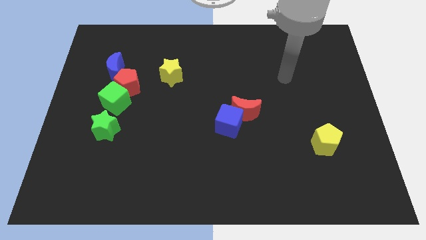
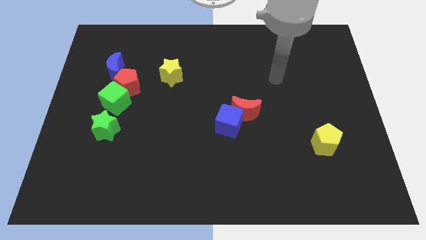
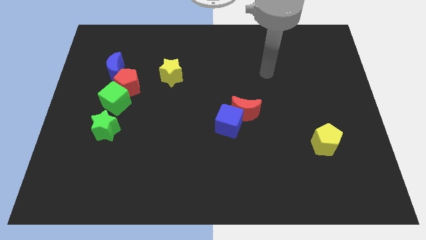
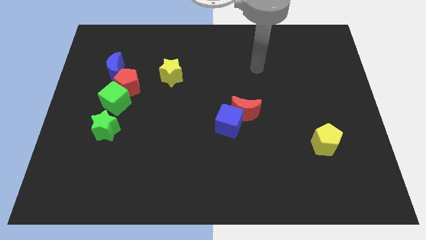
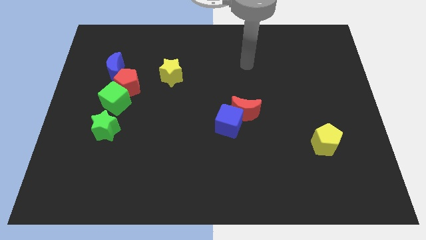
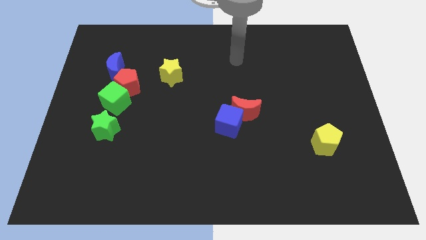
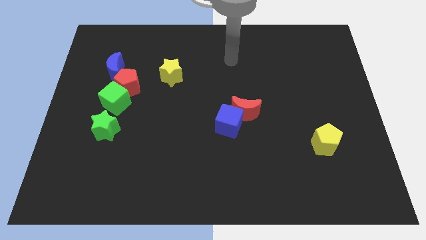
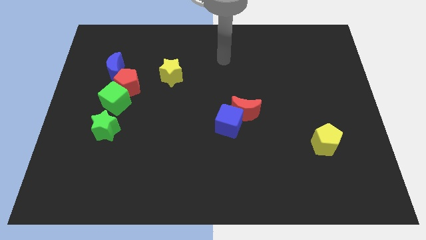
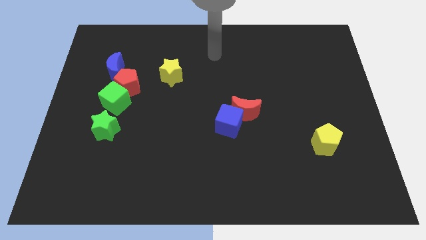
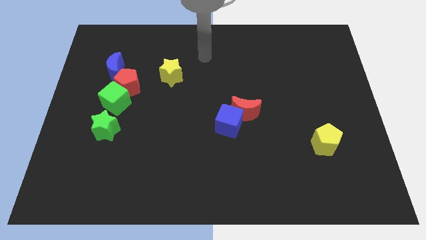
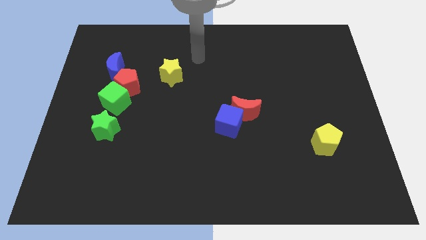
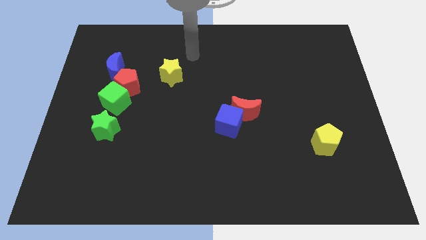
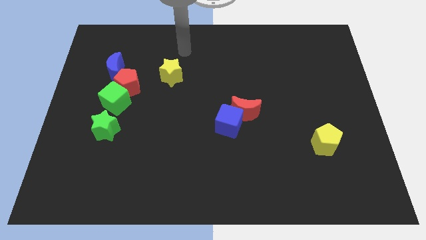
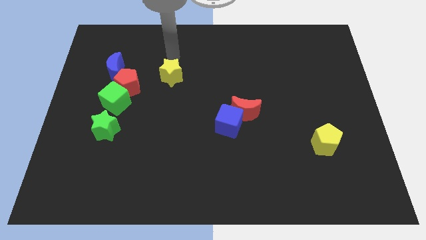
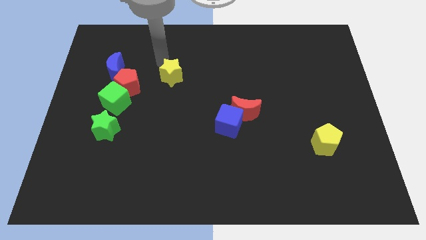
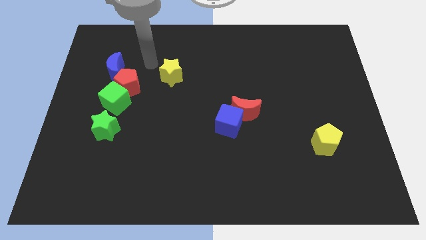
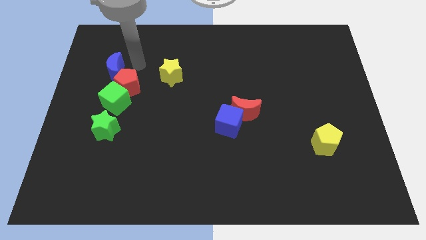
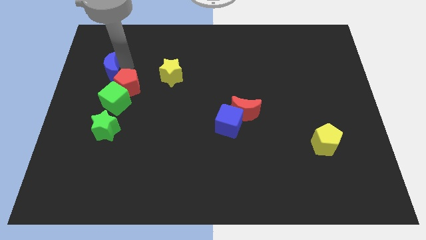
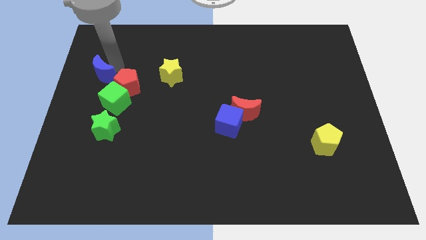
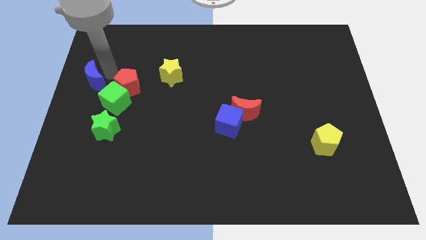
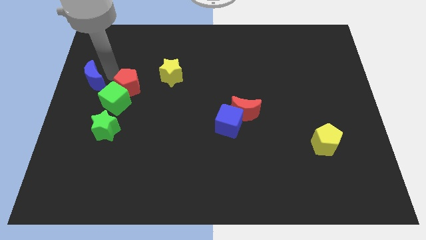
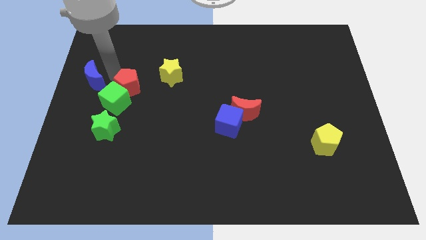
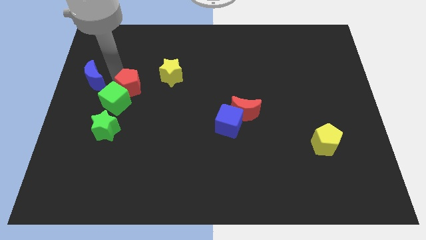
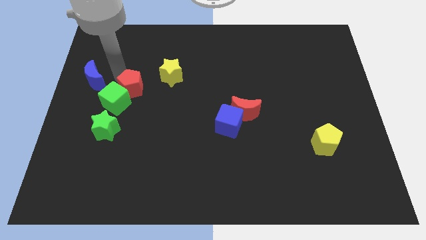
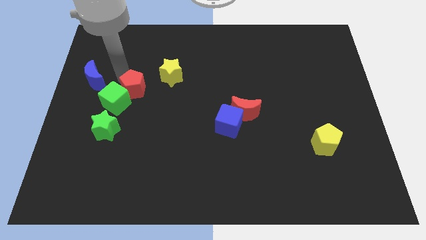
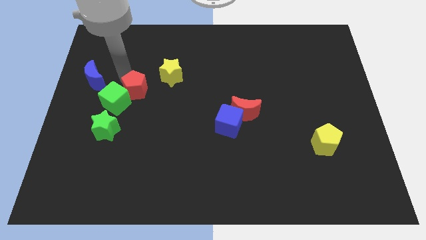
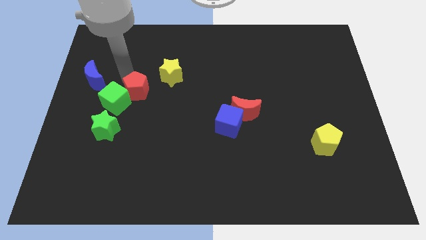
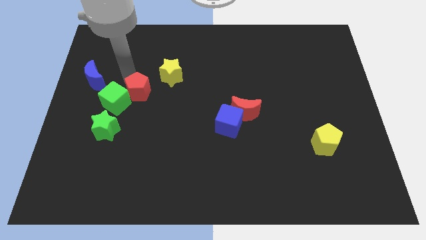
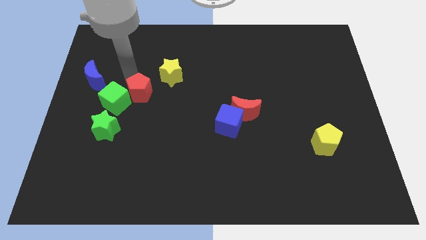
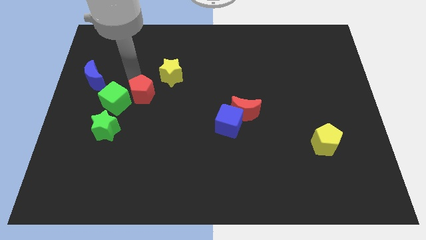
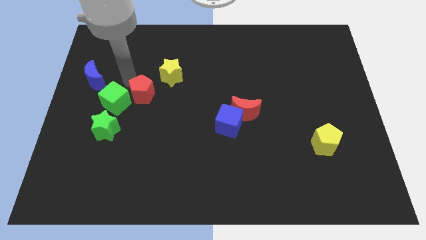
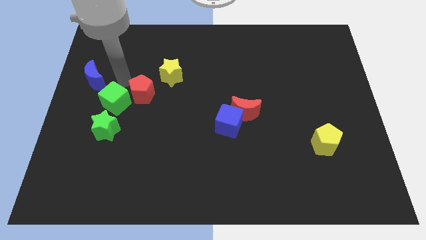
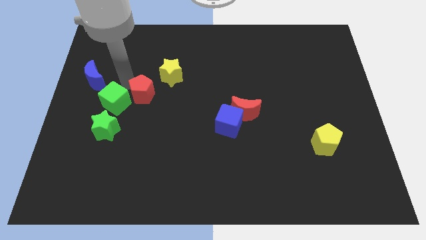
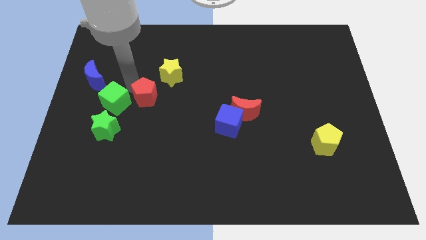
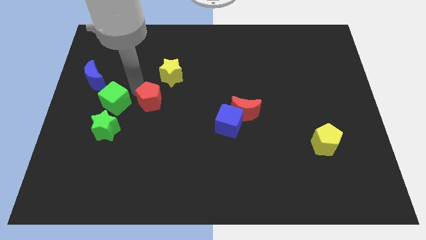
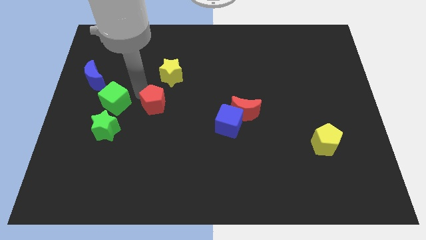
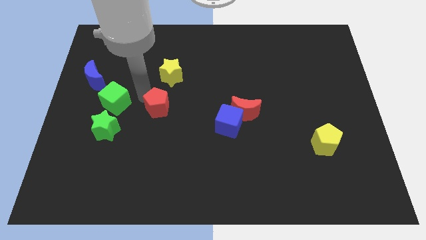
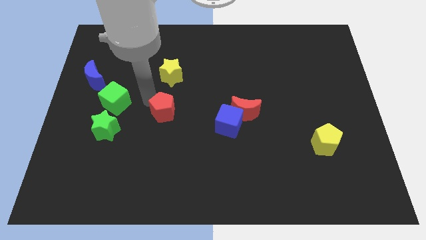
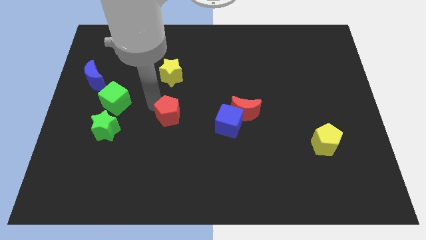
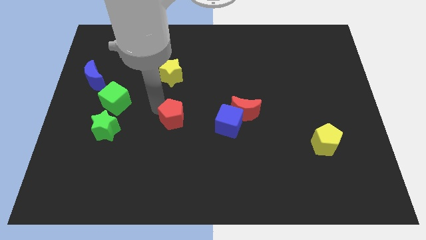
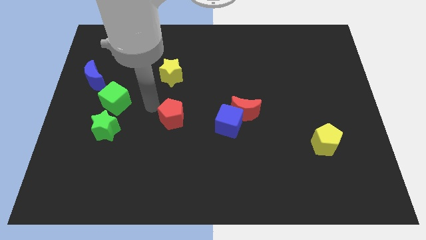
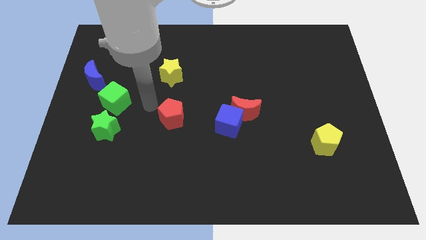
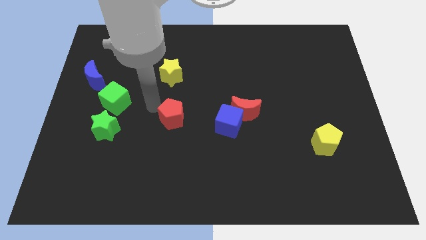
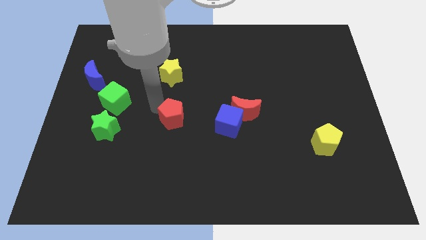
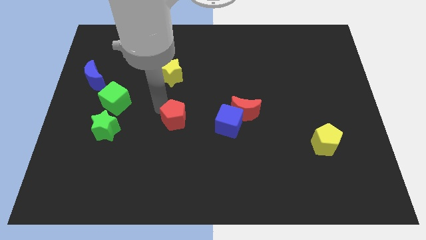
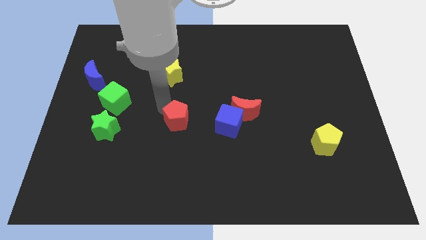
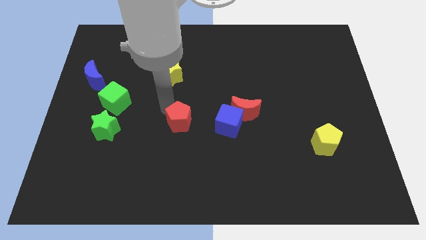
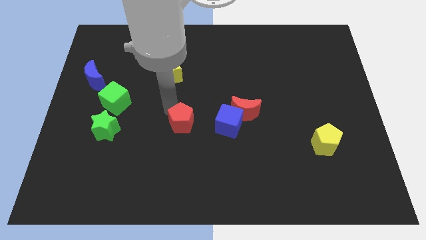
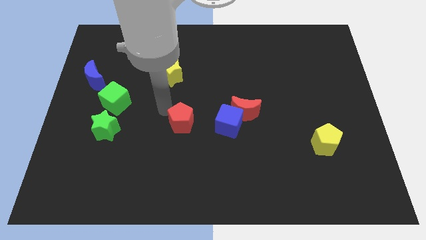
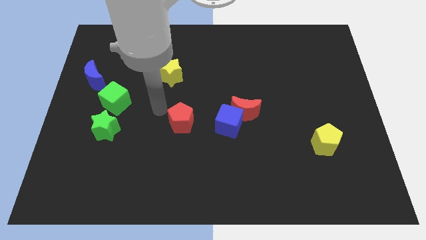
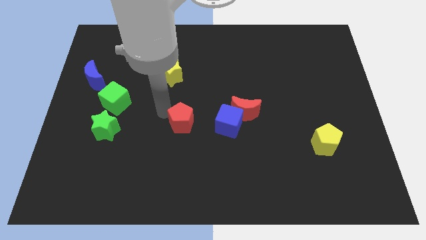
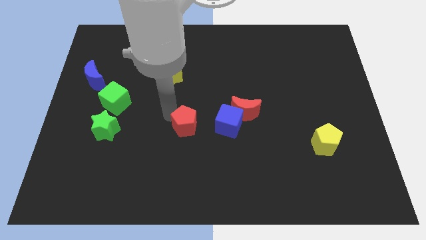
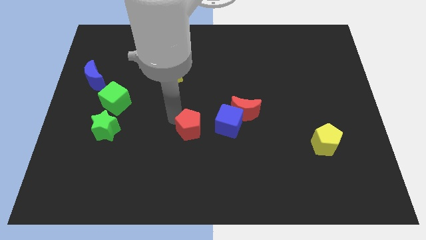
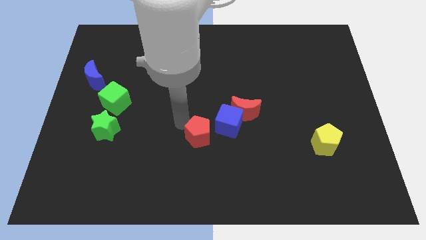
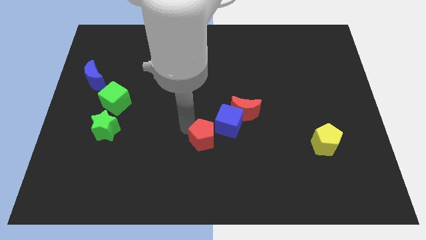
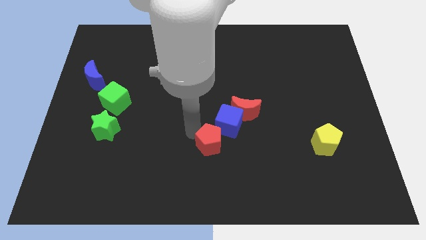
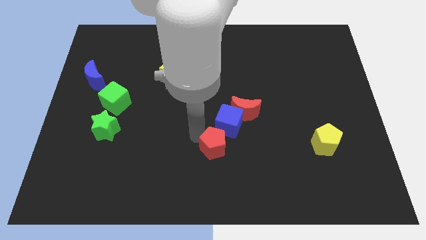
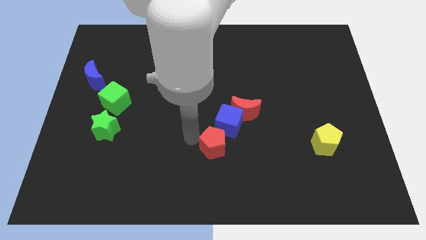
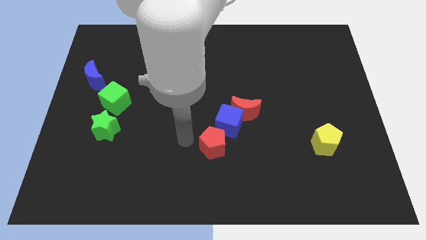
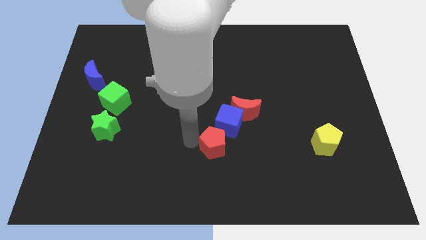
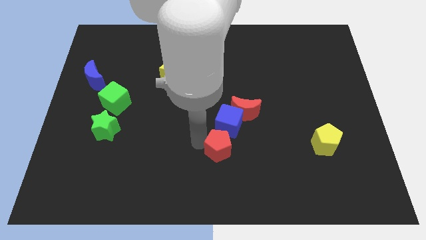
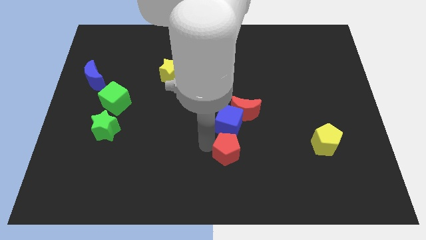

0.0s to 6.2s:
move the red pentagon to the bottom side of the red moon

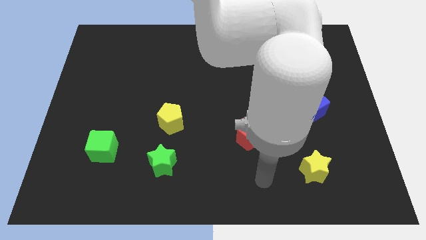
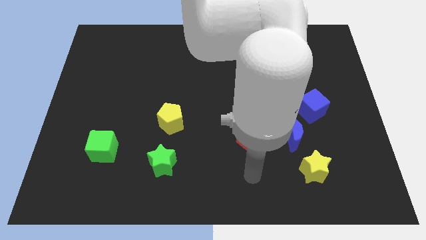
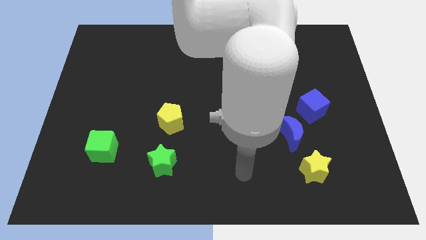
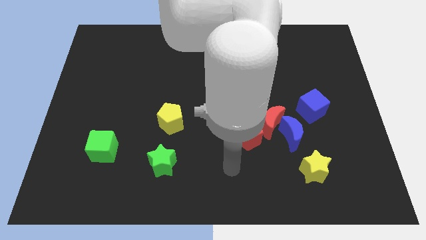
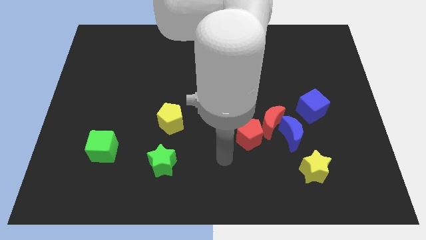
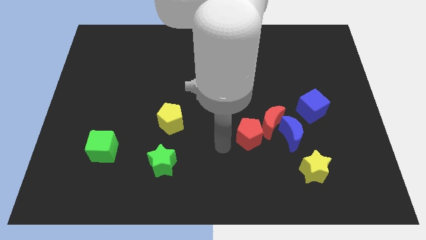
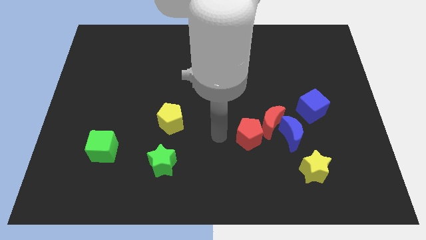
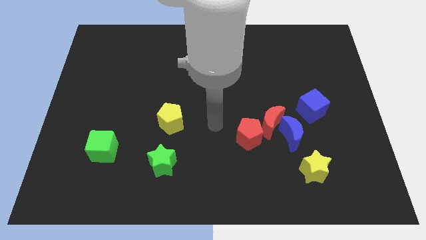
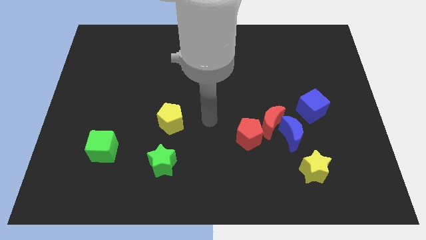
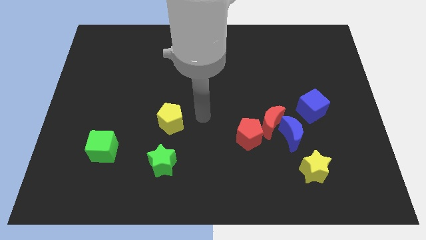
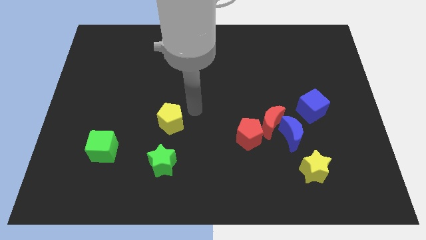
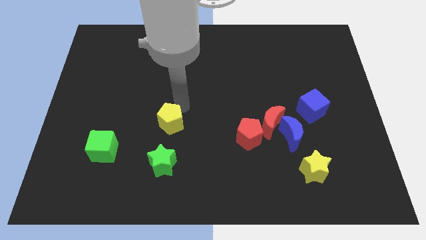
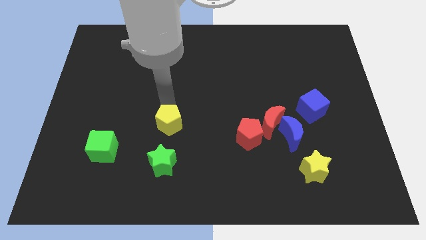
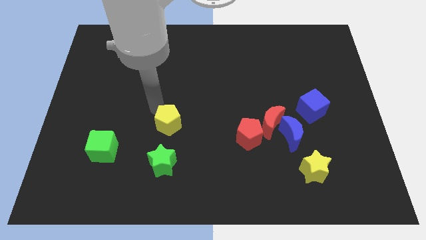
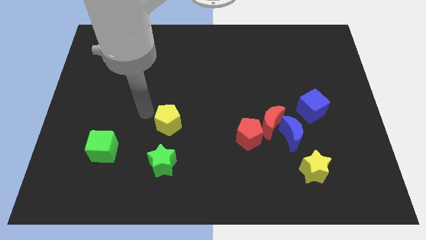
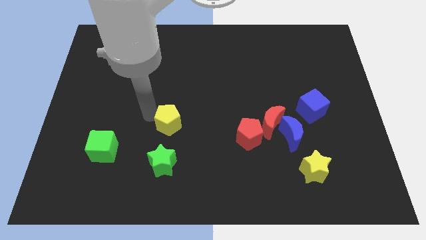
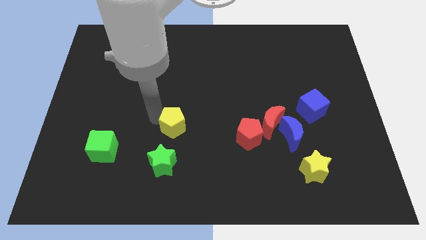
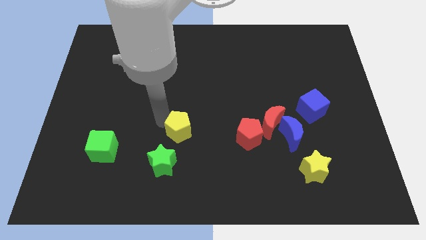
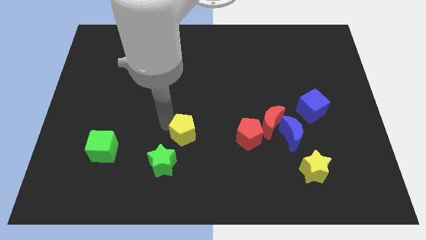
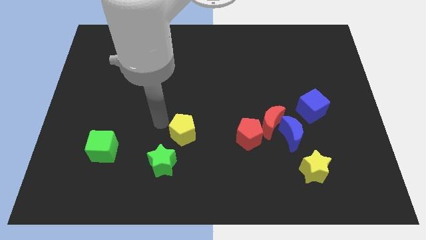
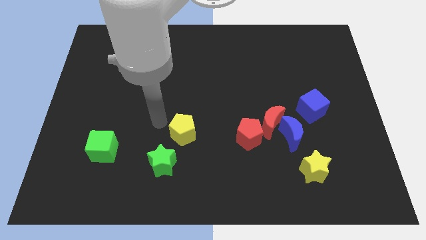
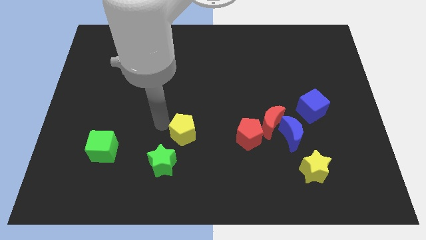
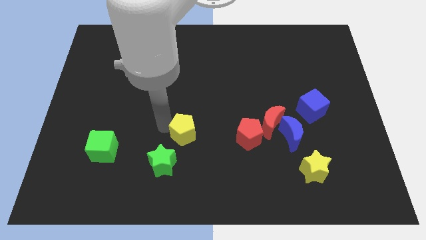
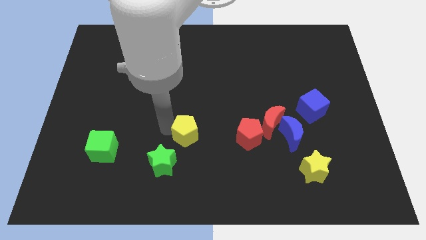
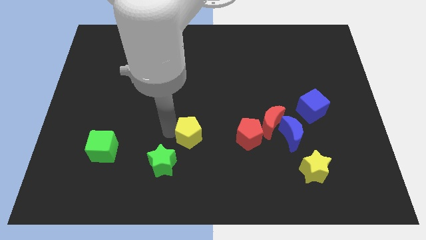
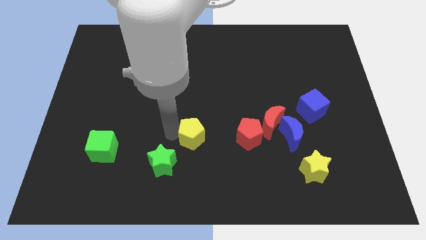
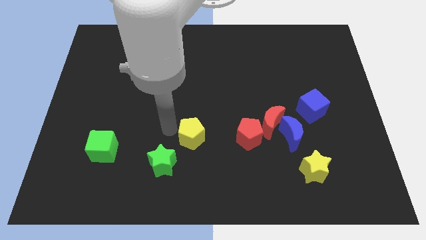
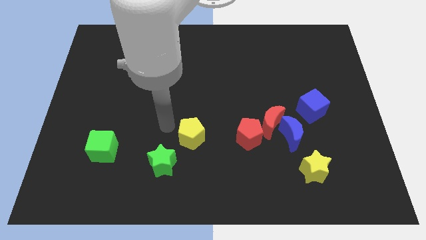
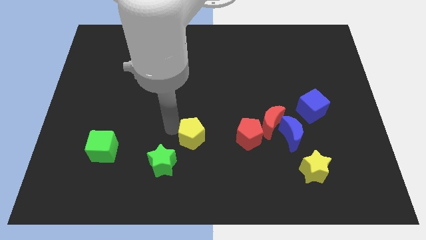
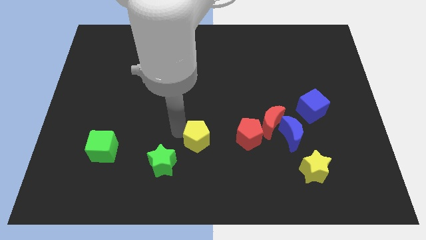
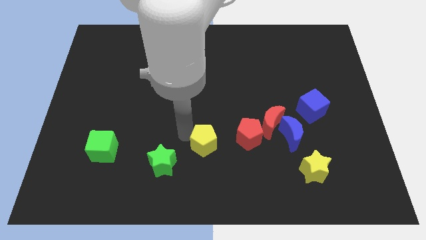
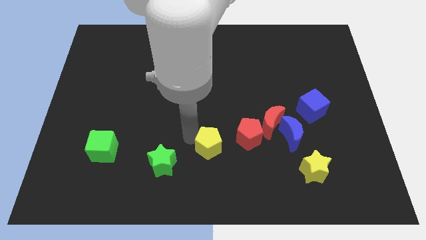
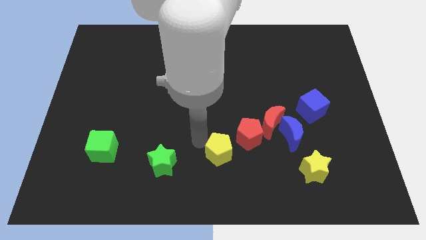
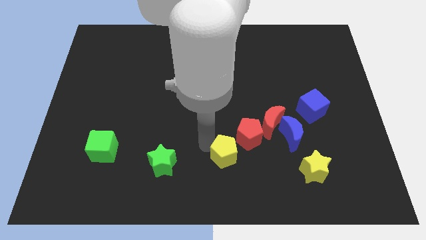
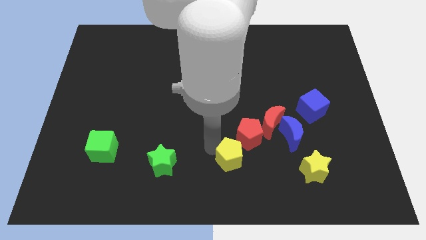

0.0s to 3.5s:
put the yellow pentagon to the bottom side of the red pentagon
